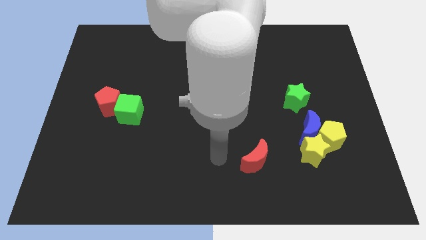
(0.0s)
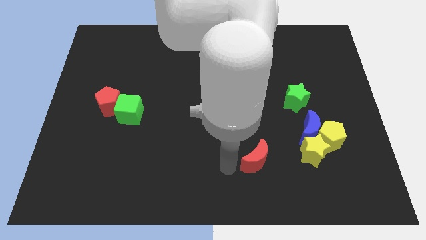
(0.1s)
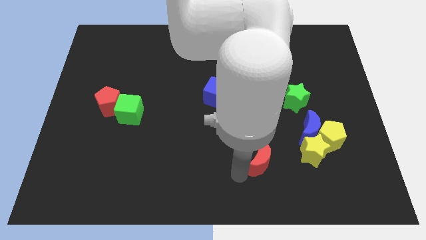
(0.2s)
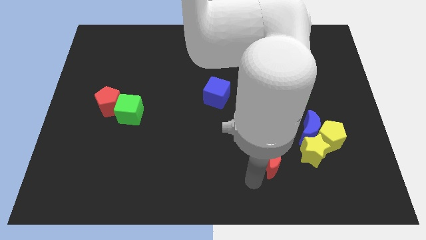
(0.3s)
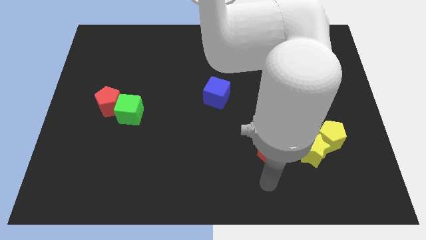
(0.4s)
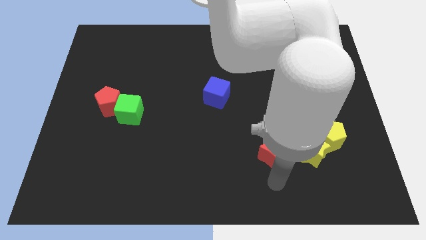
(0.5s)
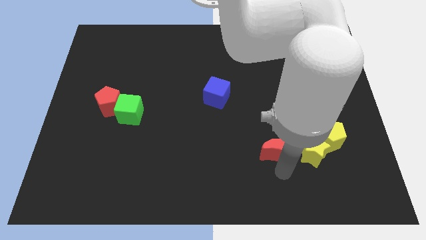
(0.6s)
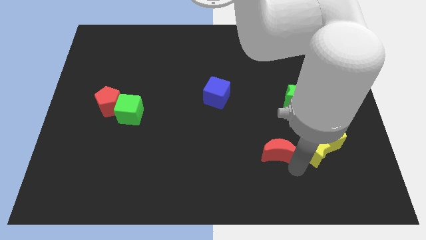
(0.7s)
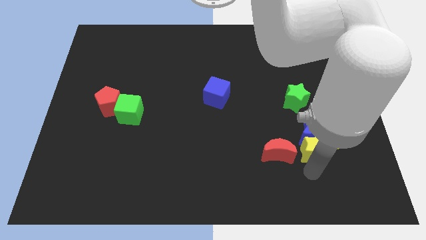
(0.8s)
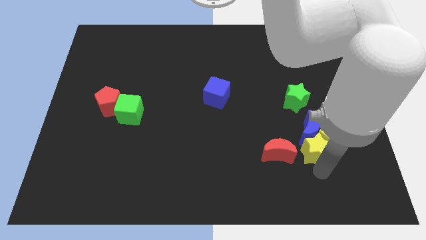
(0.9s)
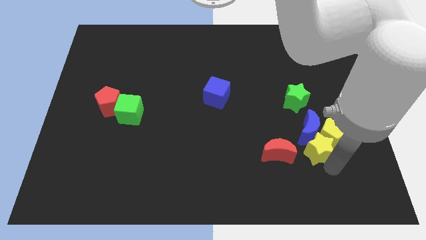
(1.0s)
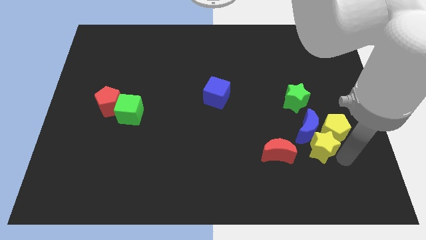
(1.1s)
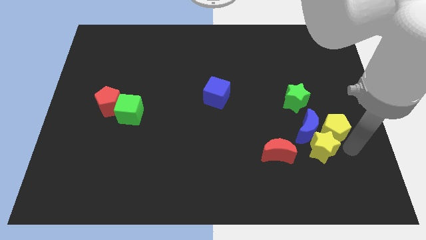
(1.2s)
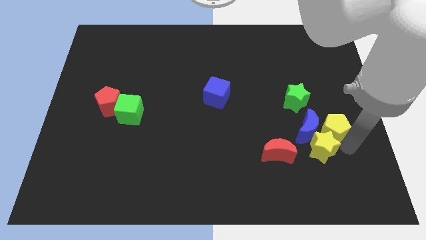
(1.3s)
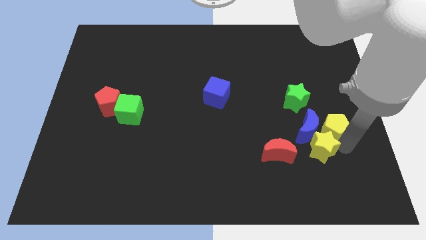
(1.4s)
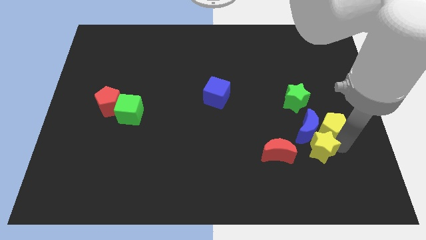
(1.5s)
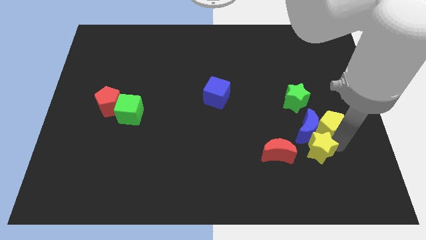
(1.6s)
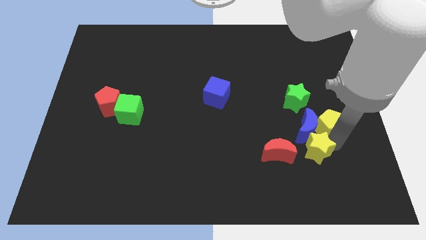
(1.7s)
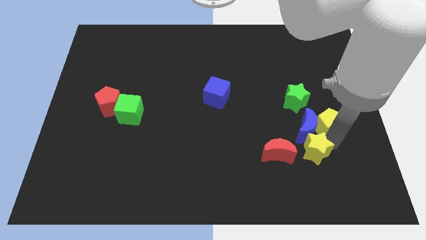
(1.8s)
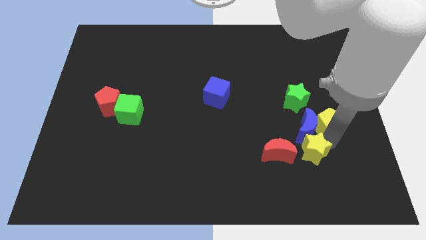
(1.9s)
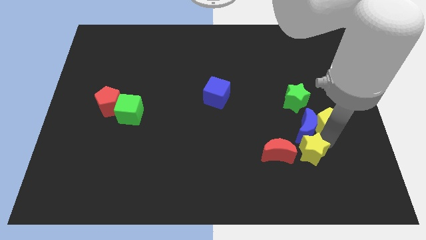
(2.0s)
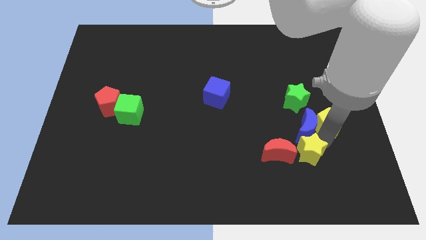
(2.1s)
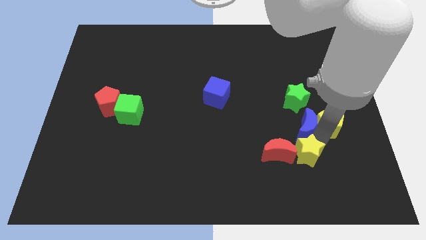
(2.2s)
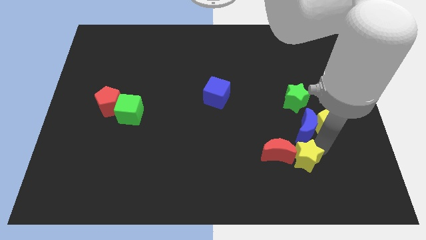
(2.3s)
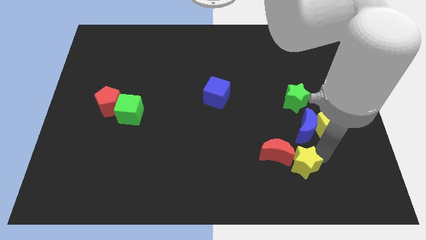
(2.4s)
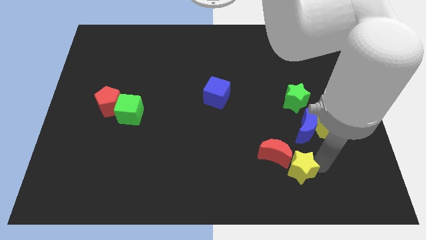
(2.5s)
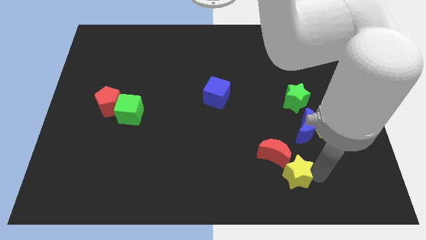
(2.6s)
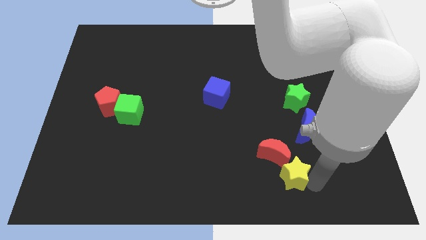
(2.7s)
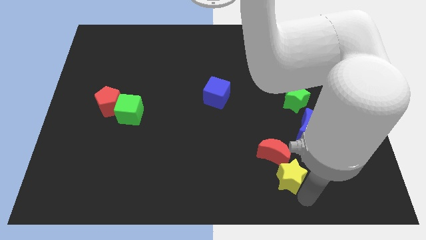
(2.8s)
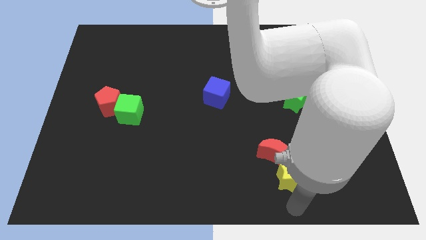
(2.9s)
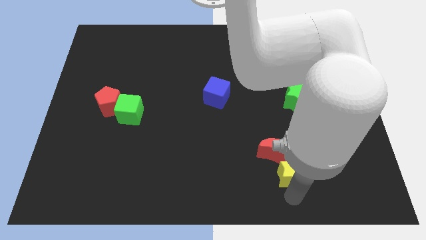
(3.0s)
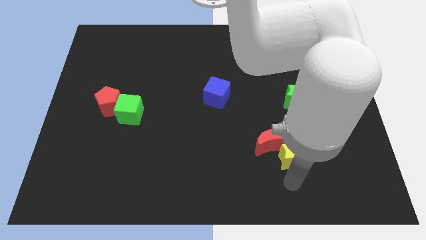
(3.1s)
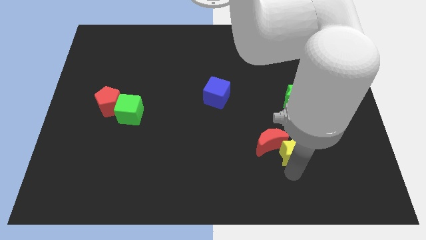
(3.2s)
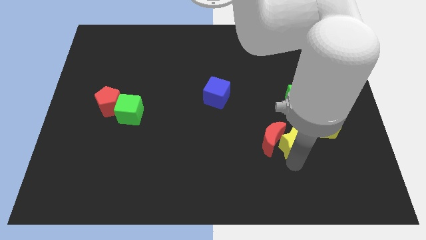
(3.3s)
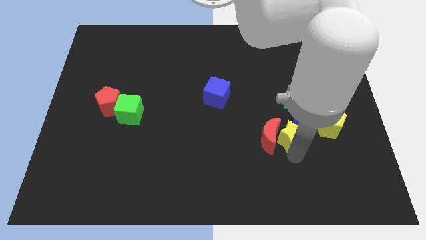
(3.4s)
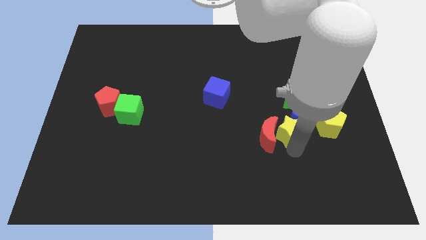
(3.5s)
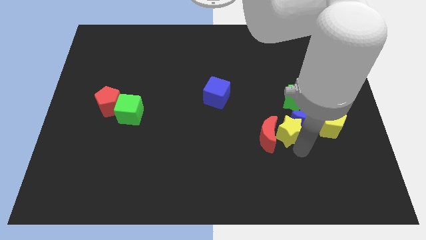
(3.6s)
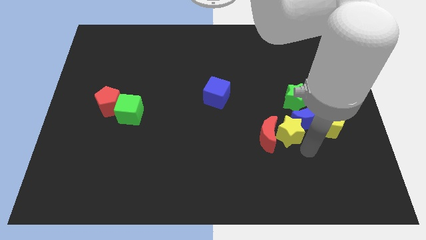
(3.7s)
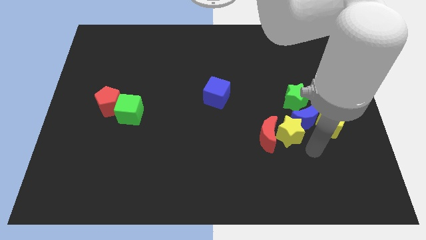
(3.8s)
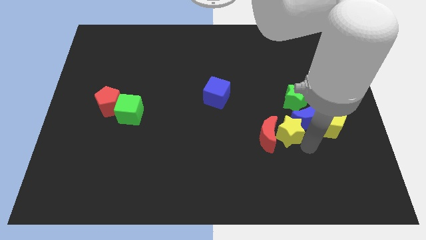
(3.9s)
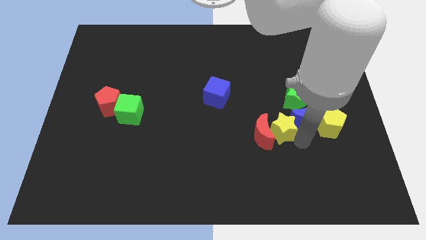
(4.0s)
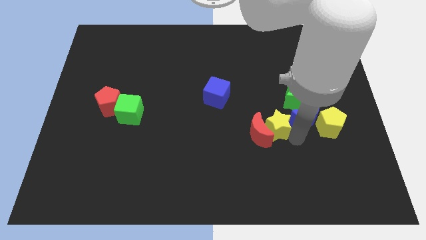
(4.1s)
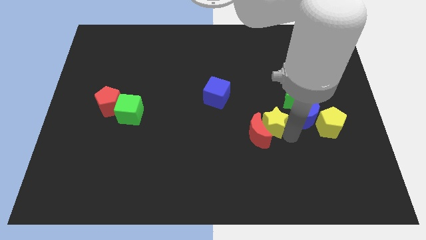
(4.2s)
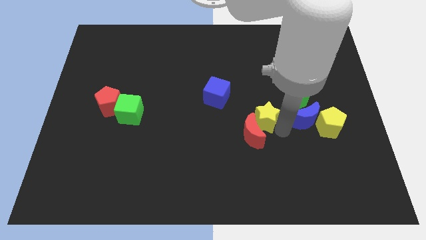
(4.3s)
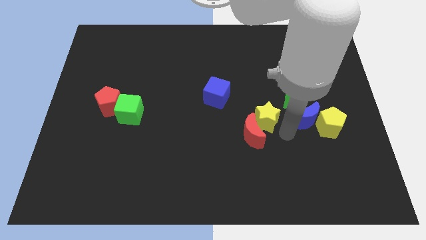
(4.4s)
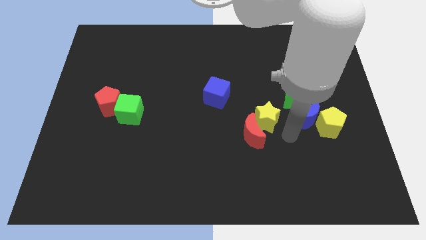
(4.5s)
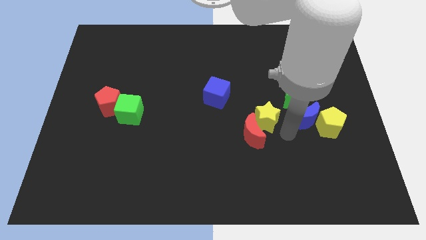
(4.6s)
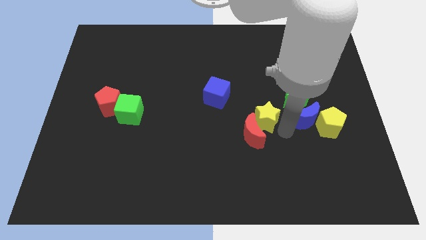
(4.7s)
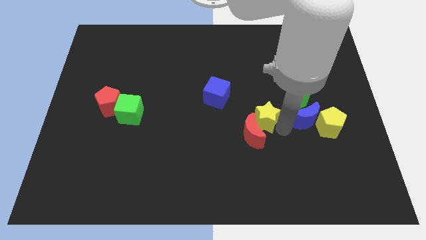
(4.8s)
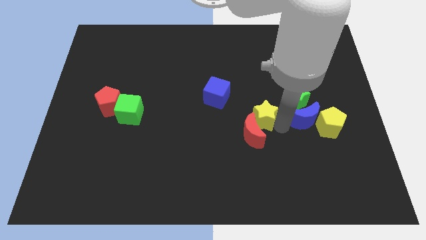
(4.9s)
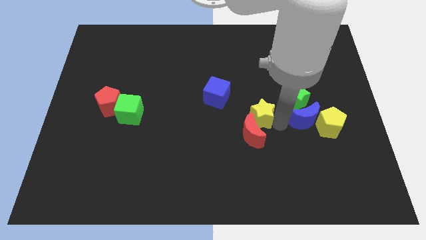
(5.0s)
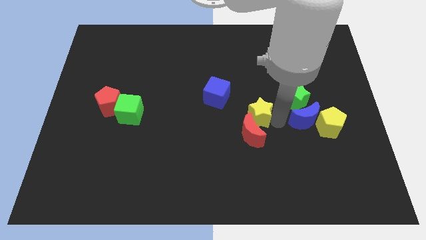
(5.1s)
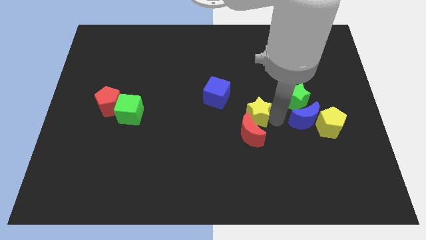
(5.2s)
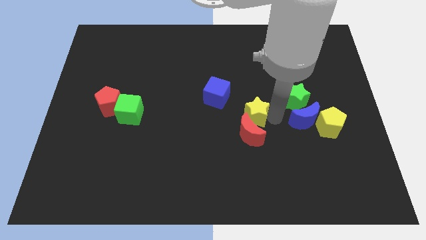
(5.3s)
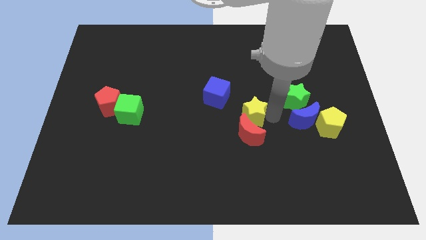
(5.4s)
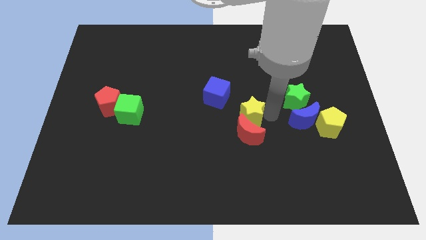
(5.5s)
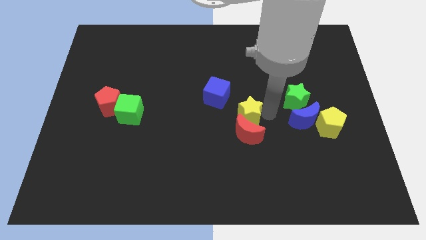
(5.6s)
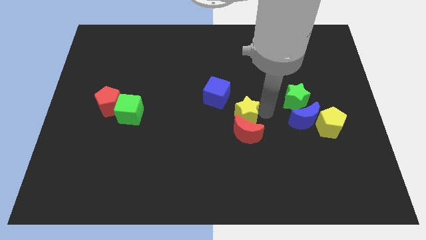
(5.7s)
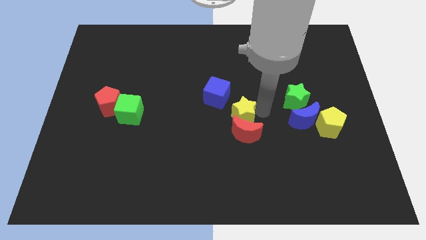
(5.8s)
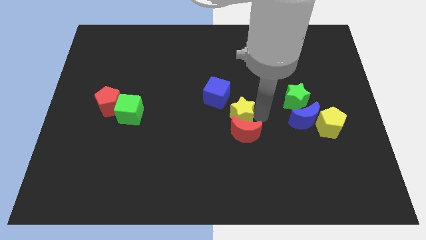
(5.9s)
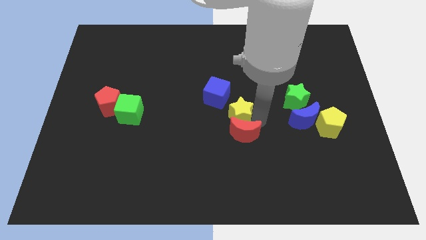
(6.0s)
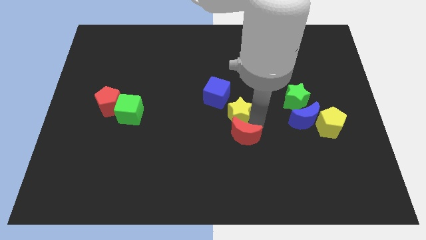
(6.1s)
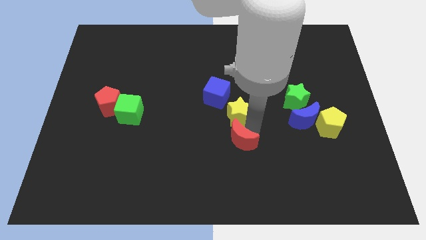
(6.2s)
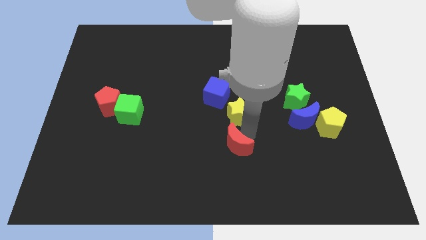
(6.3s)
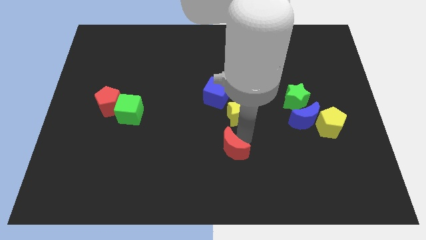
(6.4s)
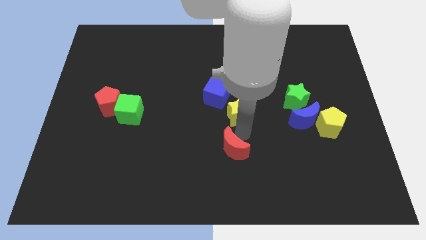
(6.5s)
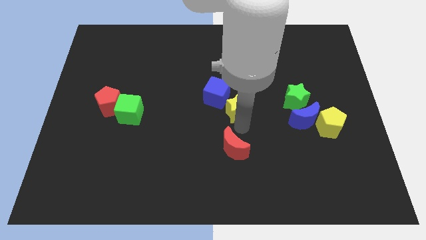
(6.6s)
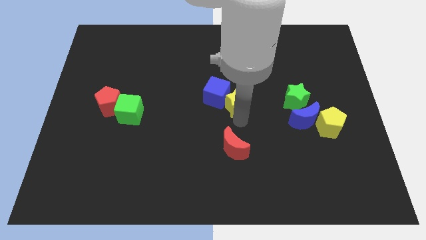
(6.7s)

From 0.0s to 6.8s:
move the yellow star upwards and to the left diagonally

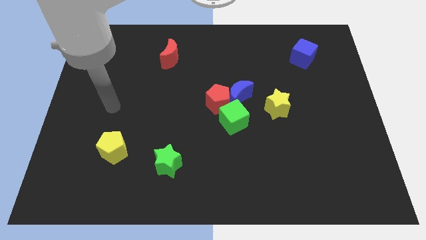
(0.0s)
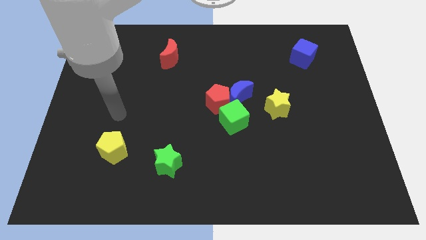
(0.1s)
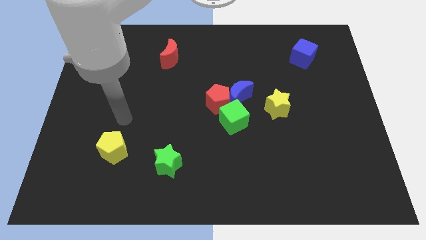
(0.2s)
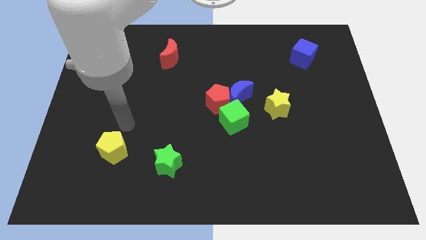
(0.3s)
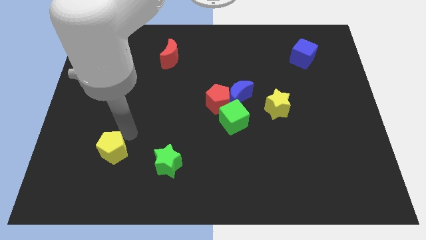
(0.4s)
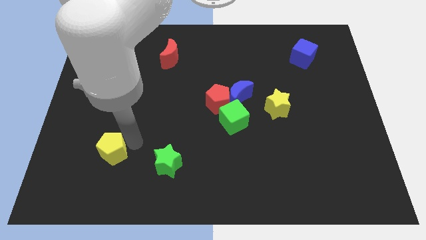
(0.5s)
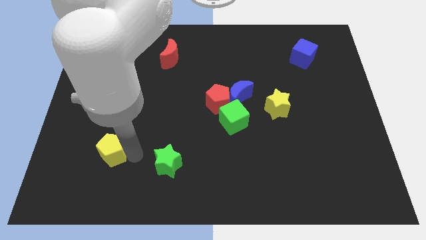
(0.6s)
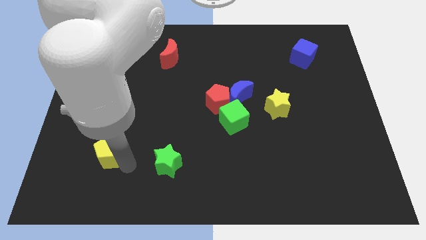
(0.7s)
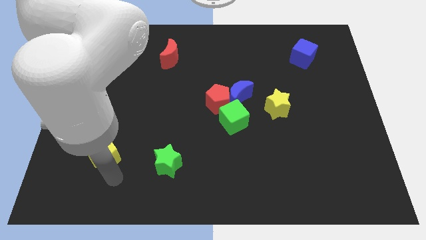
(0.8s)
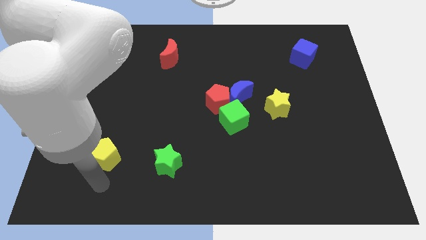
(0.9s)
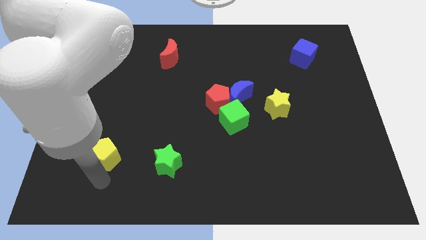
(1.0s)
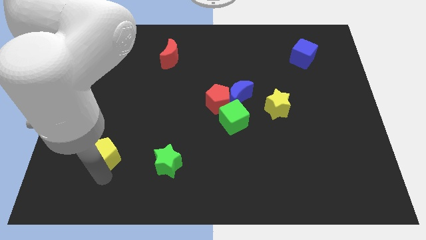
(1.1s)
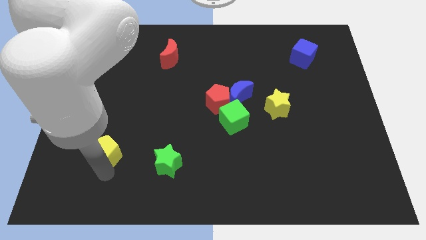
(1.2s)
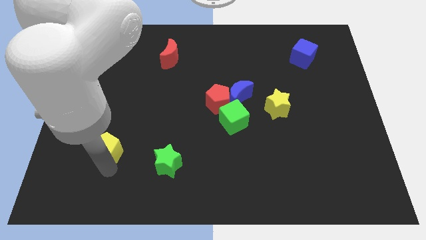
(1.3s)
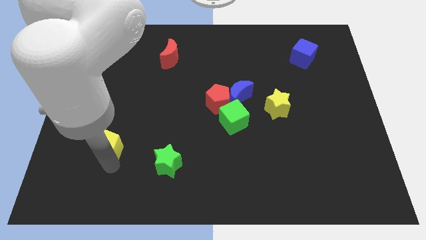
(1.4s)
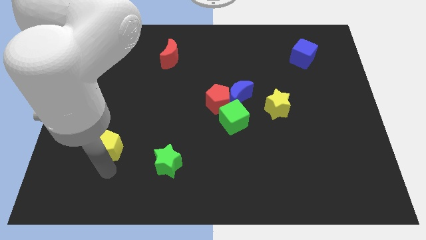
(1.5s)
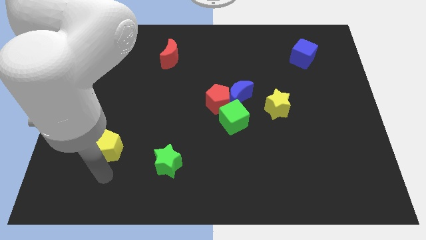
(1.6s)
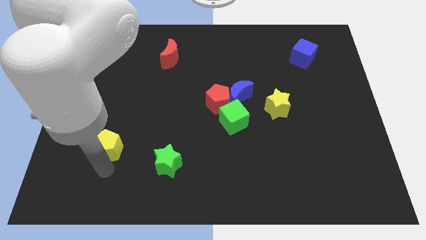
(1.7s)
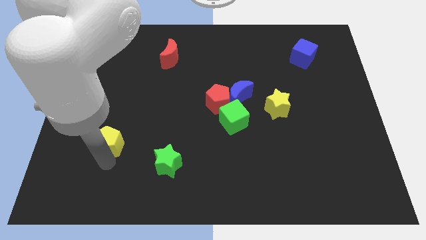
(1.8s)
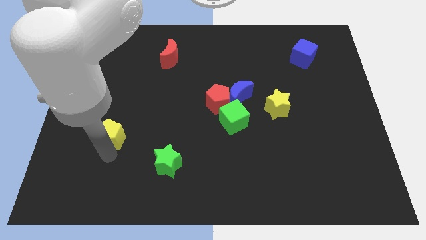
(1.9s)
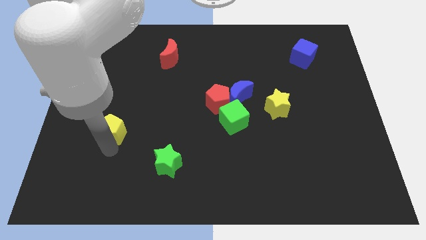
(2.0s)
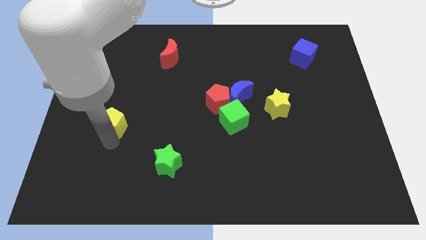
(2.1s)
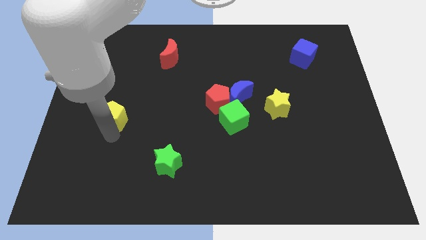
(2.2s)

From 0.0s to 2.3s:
push the yellow pentagon up a little
